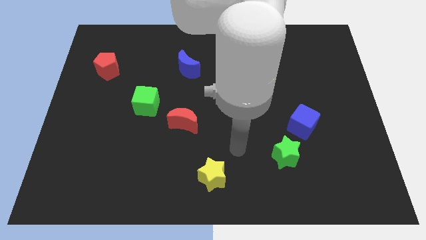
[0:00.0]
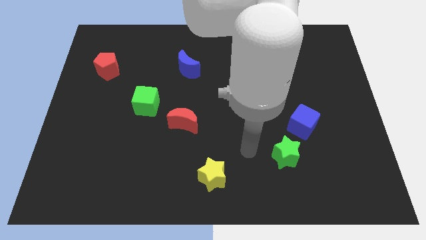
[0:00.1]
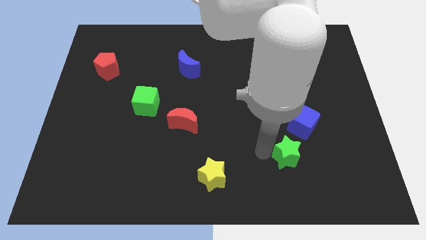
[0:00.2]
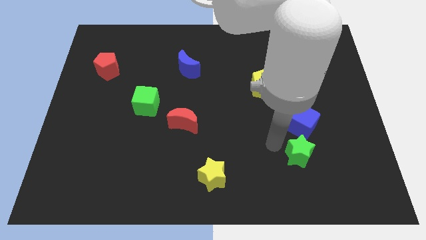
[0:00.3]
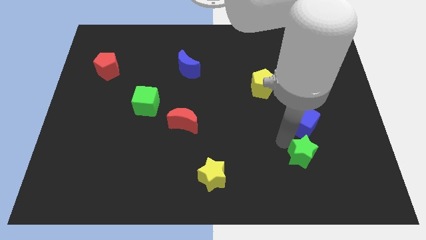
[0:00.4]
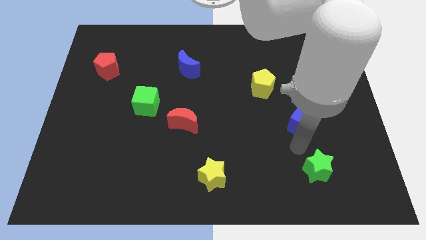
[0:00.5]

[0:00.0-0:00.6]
move the blue cube away from the green star

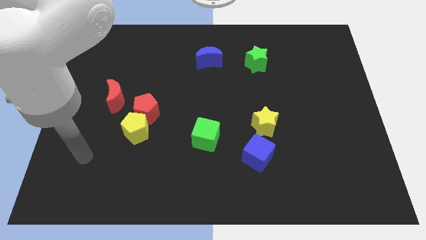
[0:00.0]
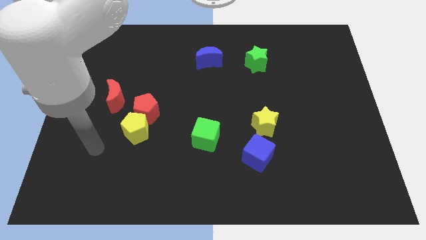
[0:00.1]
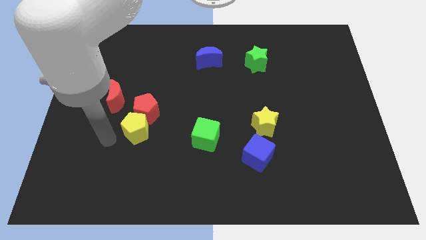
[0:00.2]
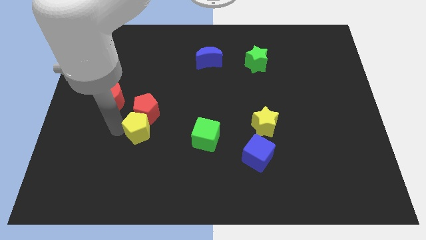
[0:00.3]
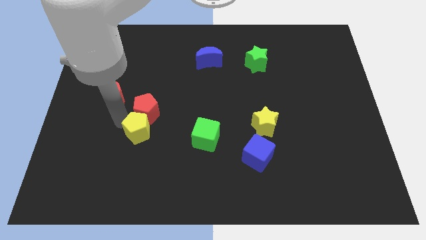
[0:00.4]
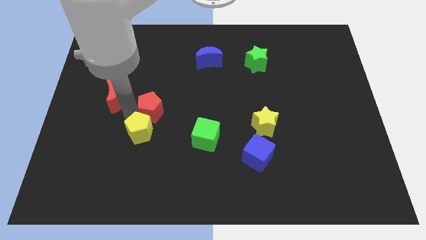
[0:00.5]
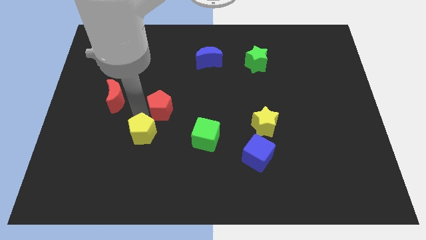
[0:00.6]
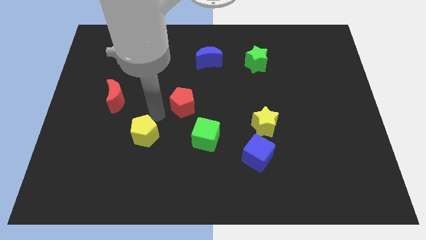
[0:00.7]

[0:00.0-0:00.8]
separate the yellow pentagon from the red pentagon

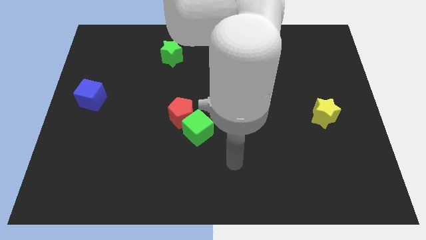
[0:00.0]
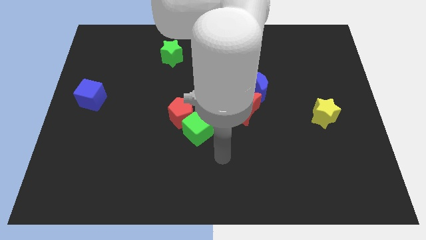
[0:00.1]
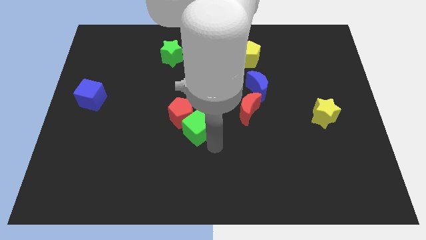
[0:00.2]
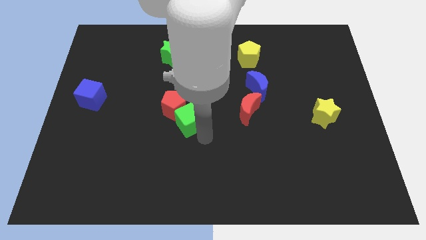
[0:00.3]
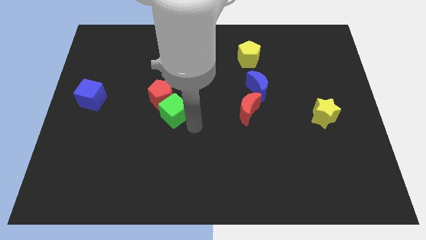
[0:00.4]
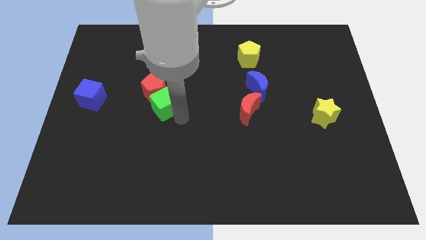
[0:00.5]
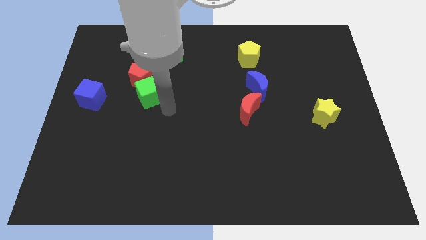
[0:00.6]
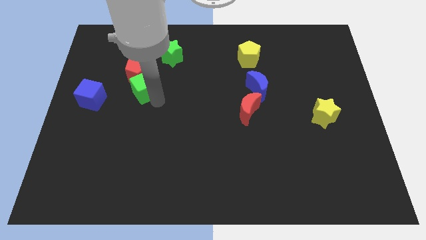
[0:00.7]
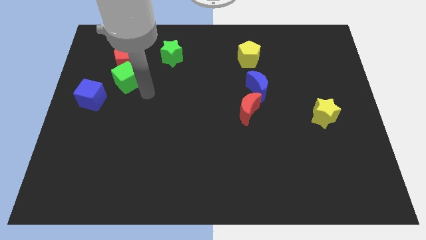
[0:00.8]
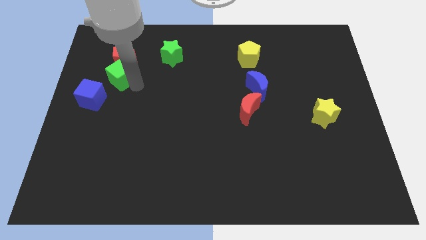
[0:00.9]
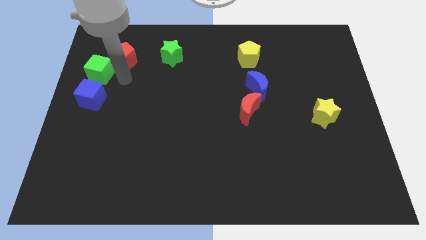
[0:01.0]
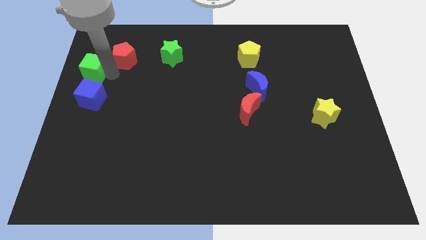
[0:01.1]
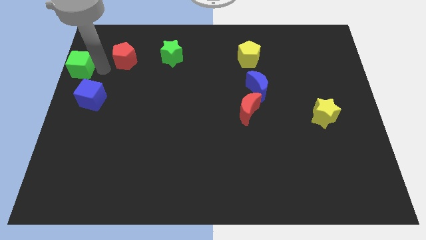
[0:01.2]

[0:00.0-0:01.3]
pull the red pentagon apart from the green cube

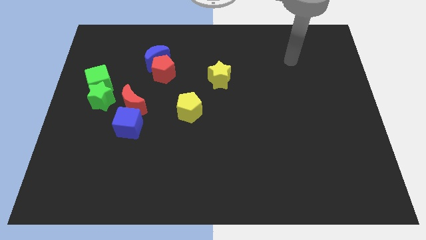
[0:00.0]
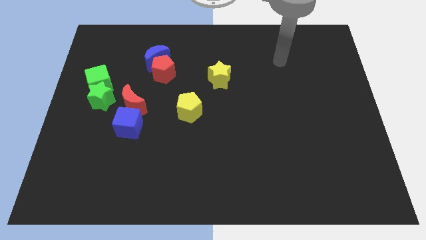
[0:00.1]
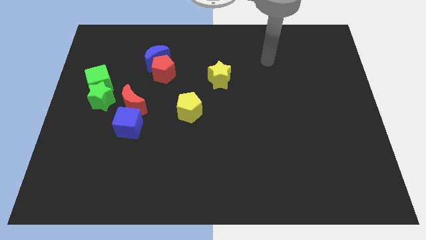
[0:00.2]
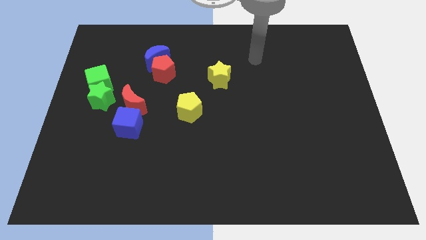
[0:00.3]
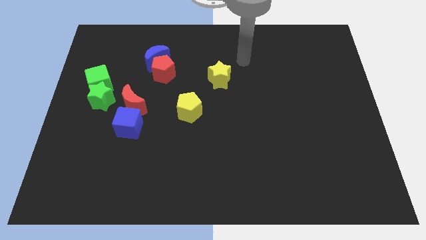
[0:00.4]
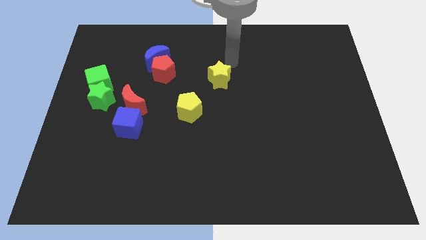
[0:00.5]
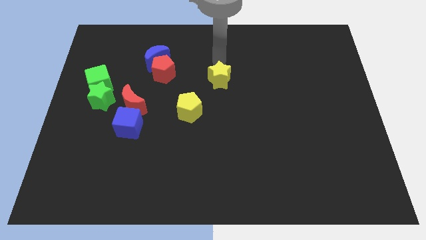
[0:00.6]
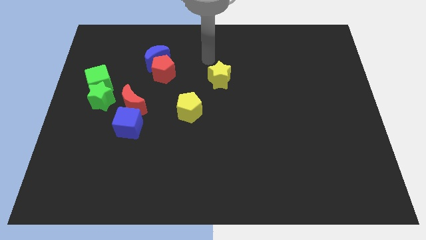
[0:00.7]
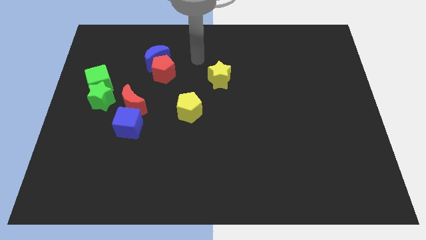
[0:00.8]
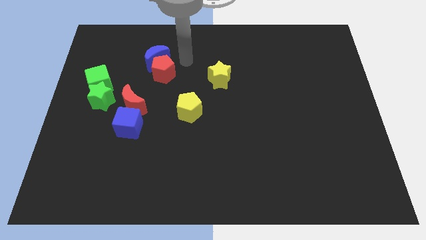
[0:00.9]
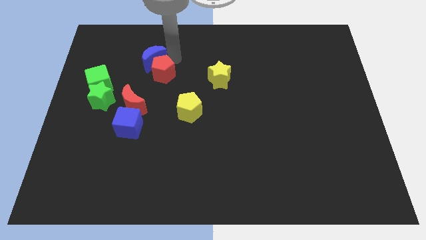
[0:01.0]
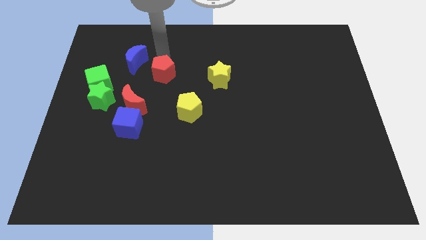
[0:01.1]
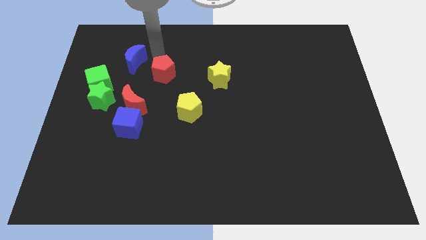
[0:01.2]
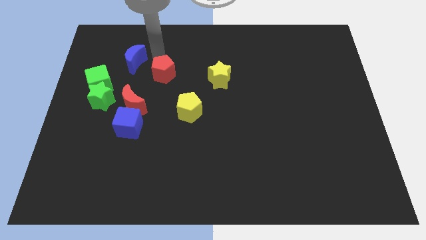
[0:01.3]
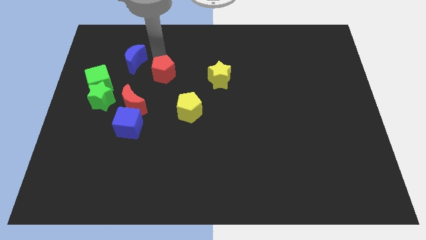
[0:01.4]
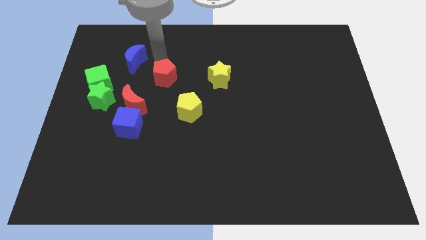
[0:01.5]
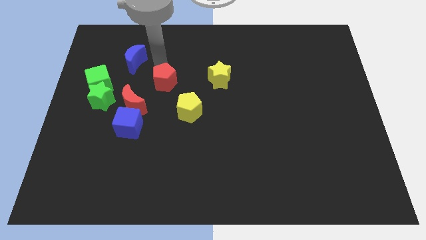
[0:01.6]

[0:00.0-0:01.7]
separate the red pentagon from the blue moon

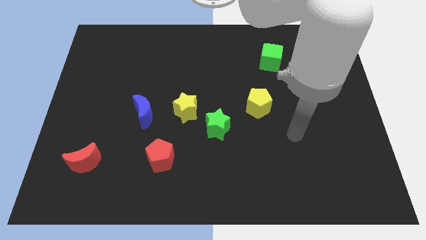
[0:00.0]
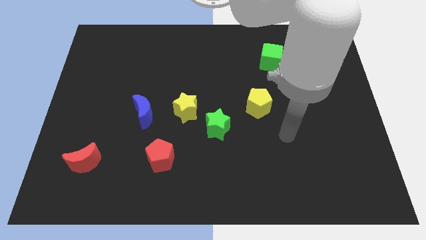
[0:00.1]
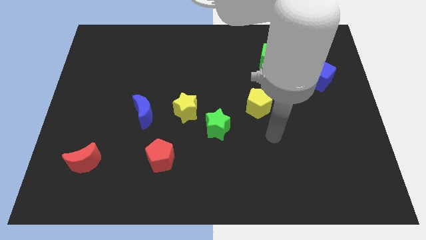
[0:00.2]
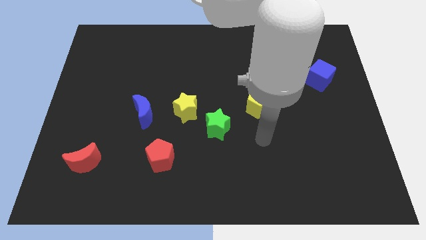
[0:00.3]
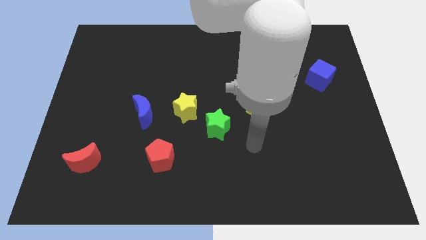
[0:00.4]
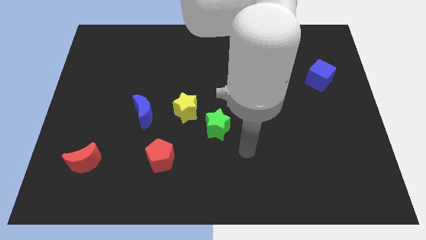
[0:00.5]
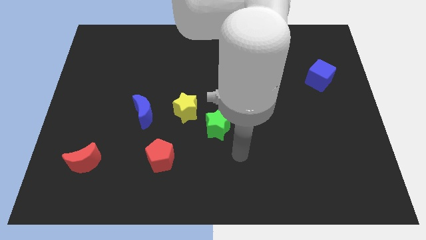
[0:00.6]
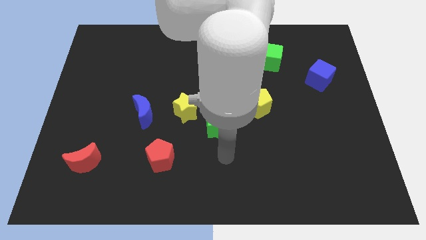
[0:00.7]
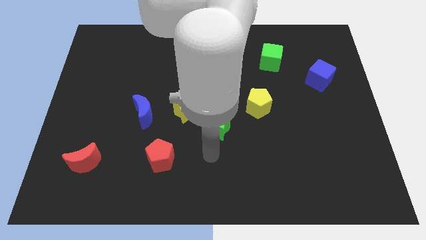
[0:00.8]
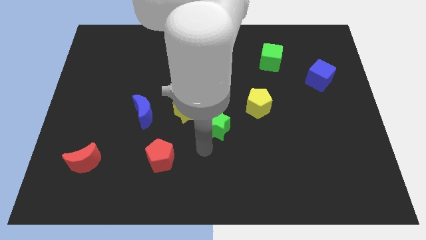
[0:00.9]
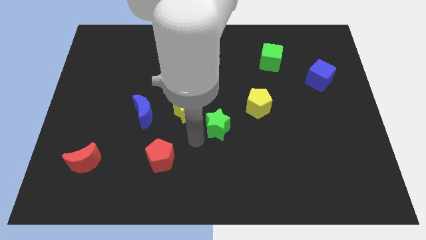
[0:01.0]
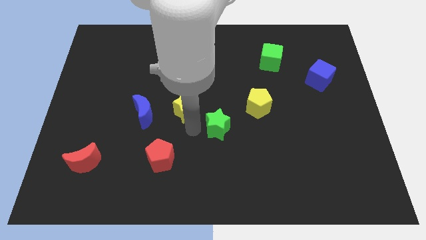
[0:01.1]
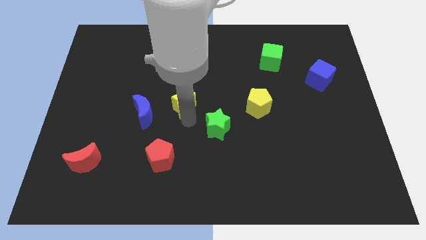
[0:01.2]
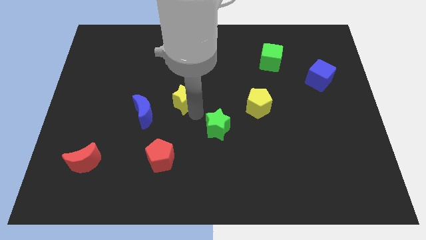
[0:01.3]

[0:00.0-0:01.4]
separate the green star from the yellow star

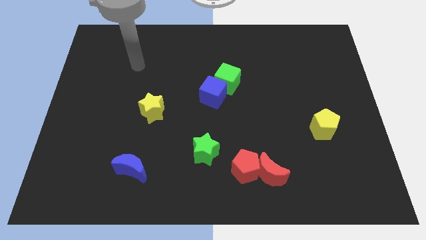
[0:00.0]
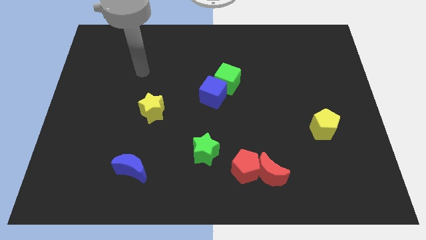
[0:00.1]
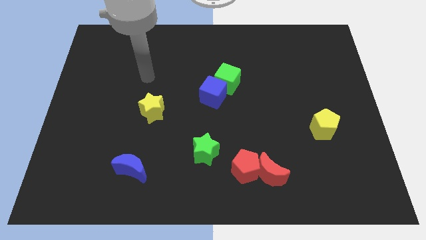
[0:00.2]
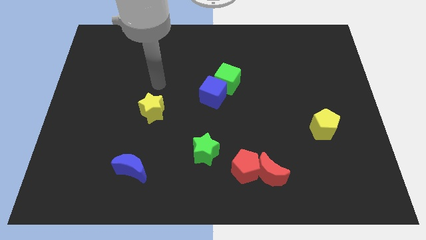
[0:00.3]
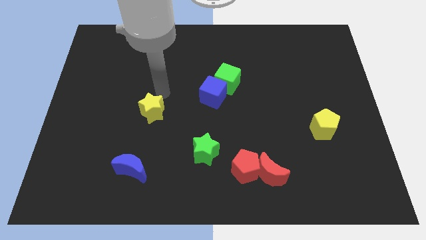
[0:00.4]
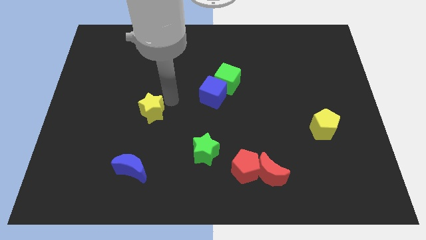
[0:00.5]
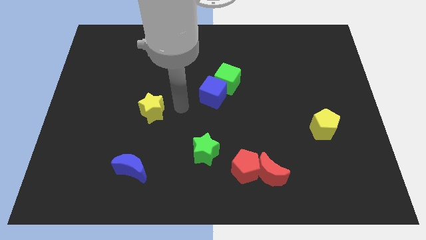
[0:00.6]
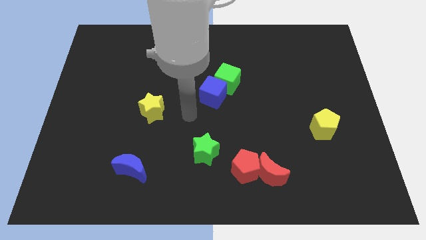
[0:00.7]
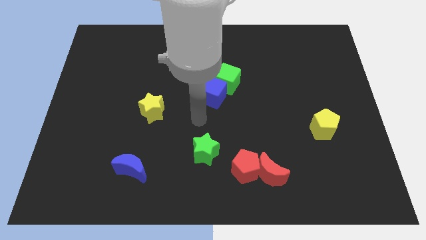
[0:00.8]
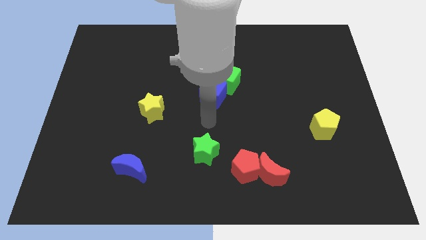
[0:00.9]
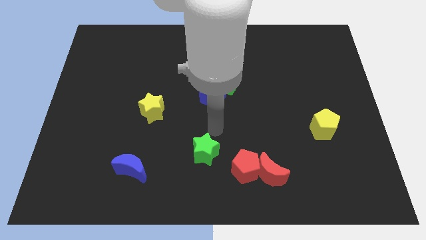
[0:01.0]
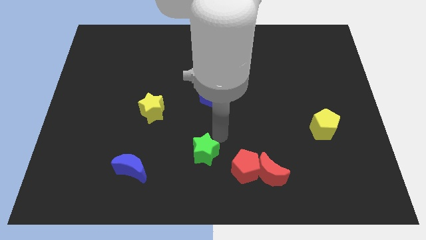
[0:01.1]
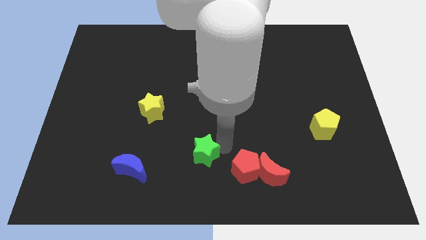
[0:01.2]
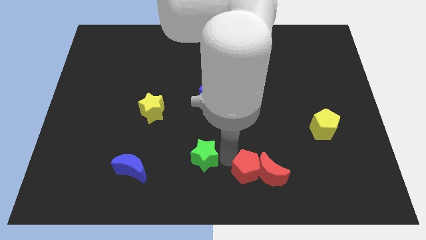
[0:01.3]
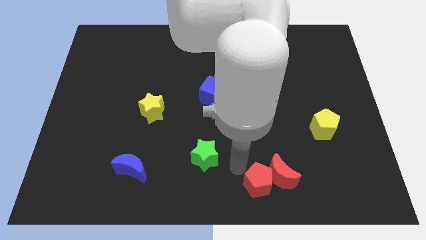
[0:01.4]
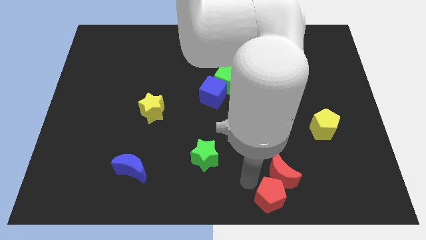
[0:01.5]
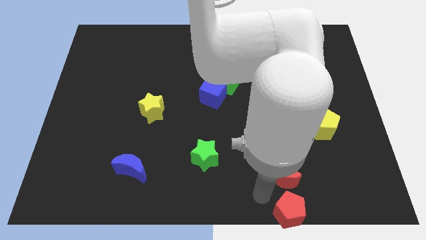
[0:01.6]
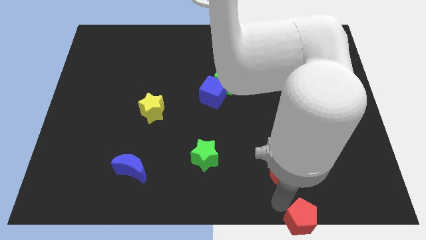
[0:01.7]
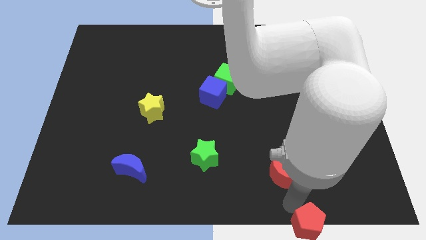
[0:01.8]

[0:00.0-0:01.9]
separate the red moon from the red pentagon

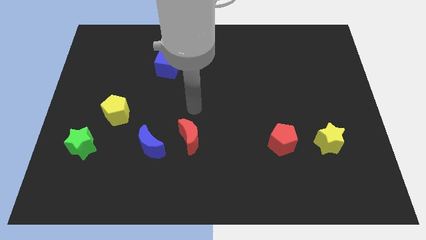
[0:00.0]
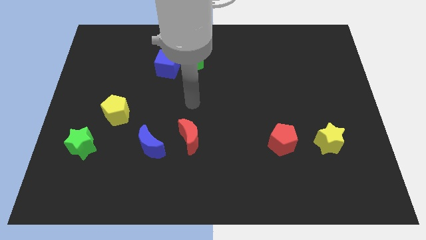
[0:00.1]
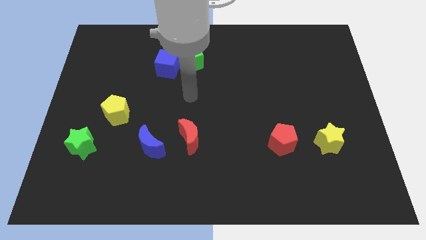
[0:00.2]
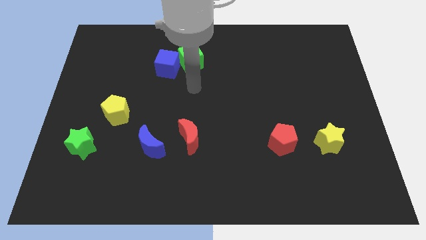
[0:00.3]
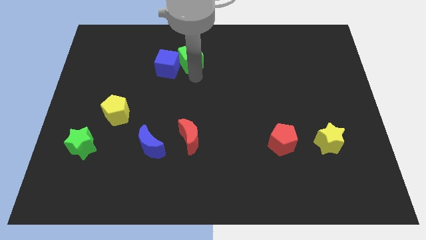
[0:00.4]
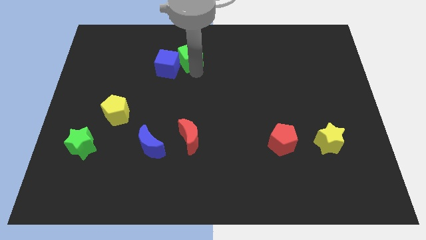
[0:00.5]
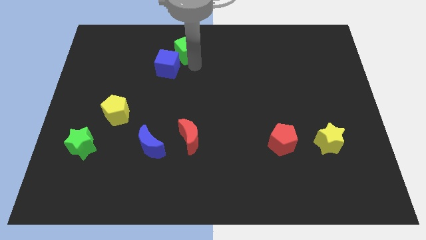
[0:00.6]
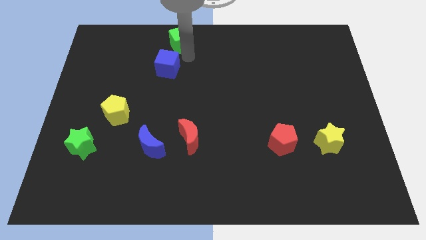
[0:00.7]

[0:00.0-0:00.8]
move the blue cube away from the green cube

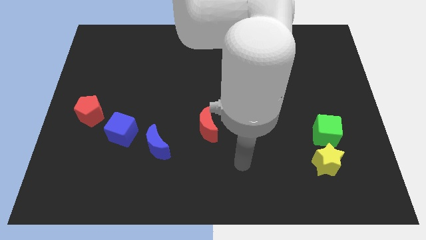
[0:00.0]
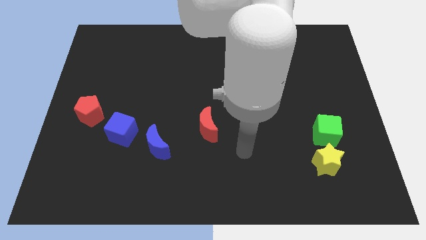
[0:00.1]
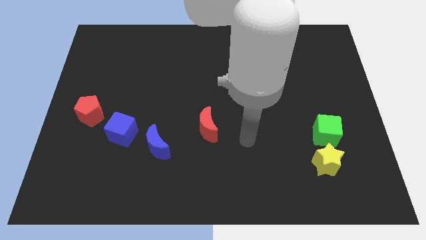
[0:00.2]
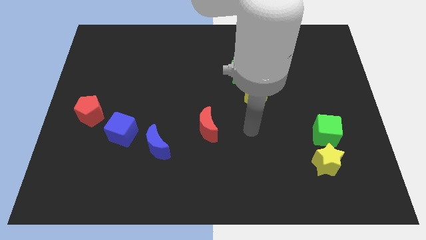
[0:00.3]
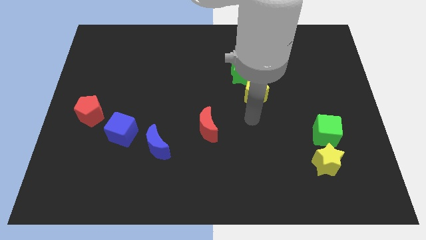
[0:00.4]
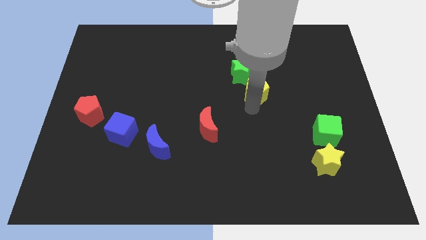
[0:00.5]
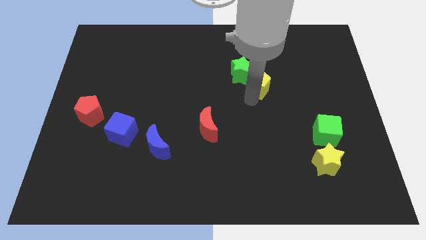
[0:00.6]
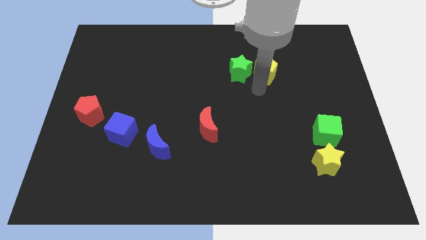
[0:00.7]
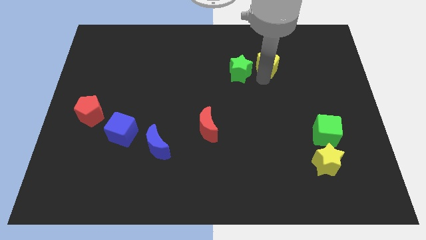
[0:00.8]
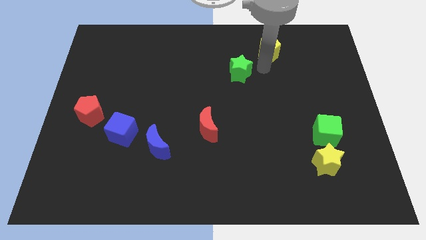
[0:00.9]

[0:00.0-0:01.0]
separate the green star from the yellow pentagon
